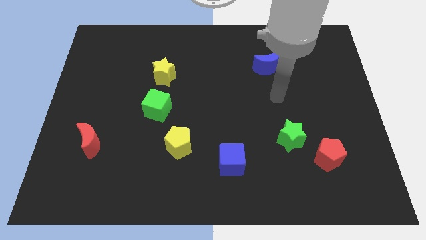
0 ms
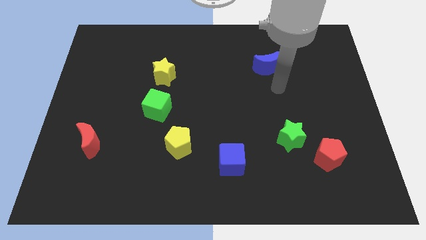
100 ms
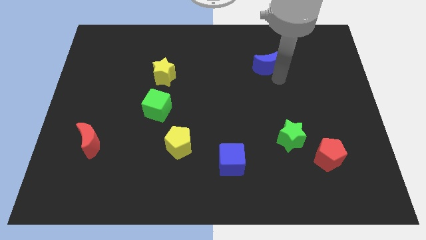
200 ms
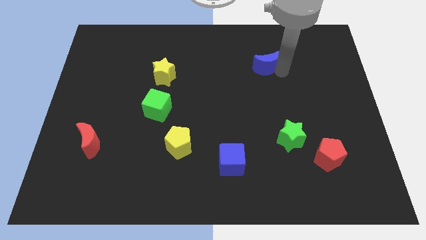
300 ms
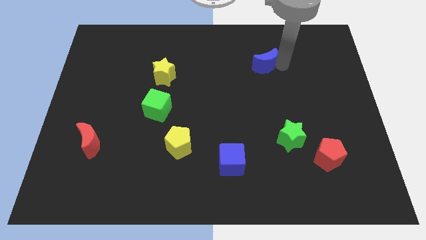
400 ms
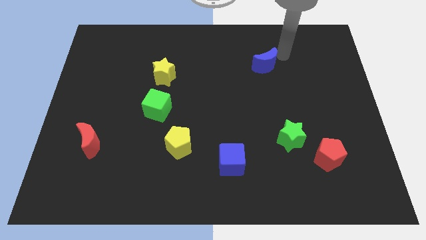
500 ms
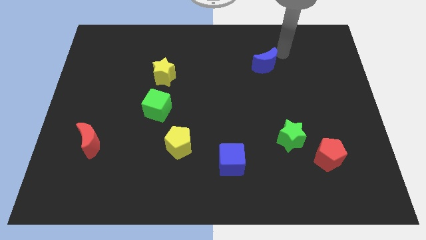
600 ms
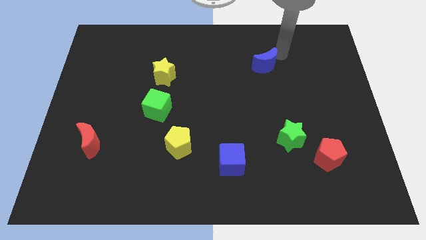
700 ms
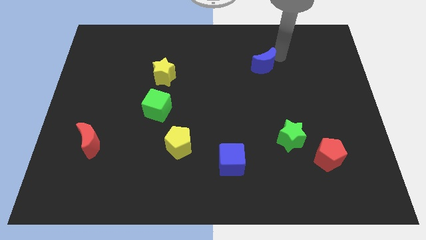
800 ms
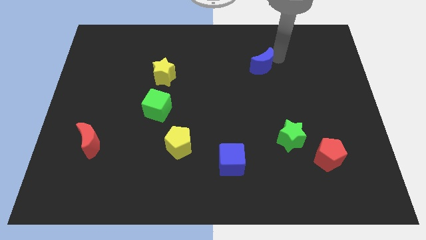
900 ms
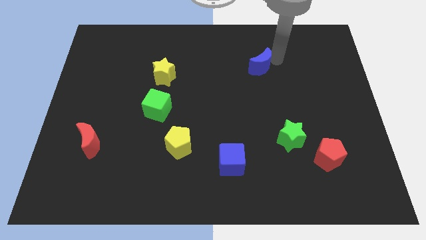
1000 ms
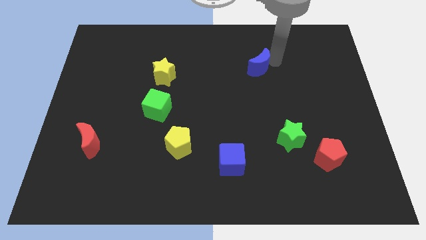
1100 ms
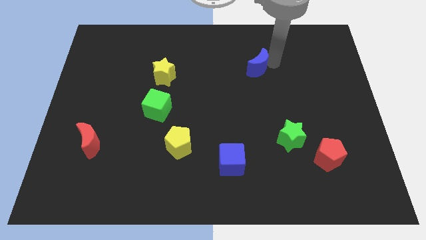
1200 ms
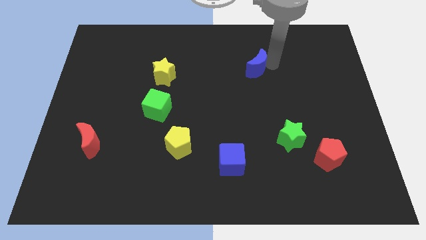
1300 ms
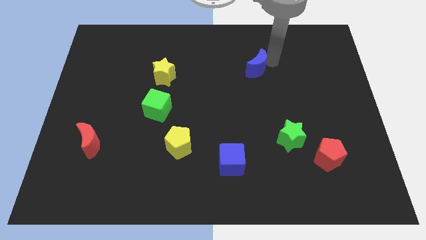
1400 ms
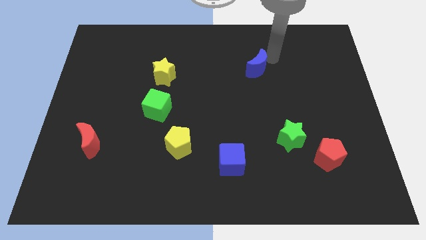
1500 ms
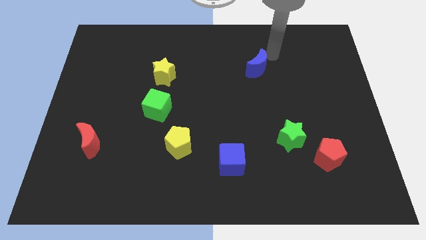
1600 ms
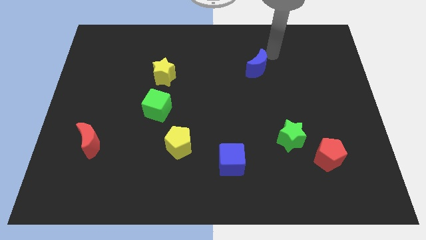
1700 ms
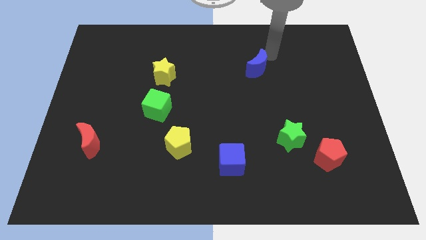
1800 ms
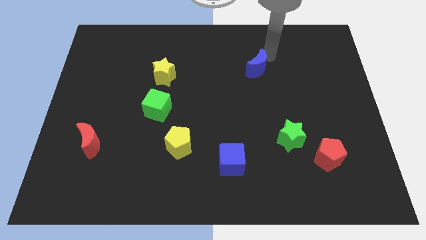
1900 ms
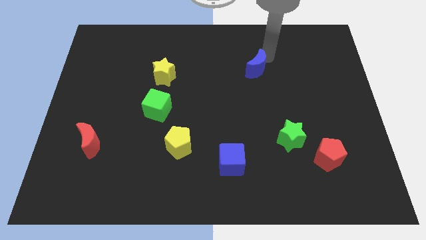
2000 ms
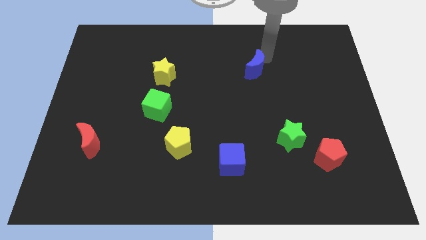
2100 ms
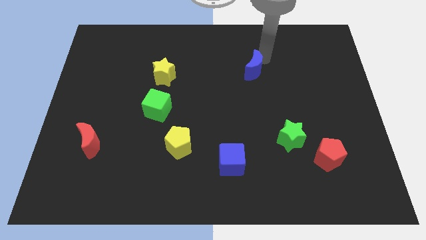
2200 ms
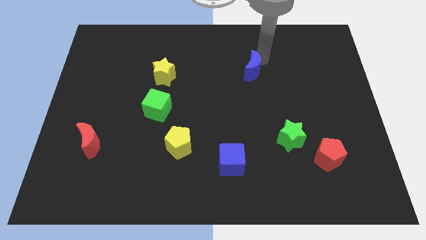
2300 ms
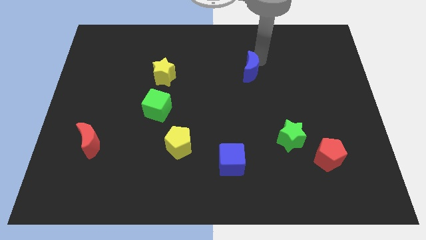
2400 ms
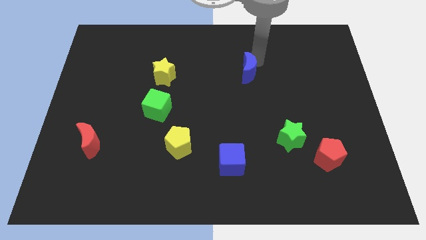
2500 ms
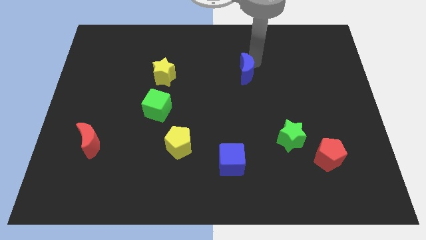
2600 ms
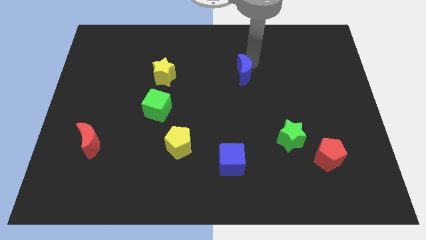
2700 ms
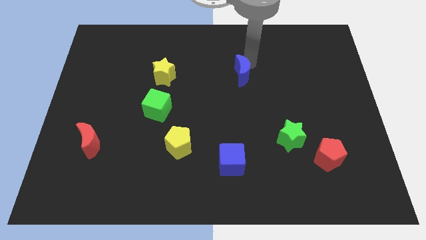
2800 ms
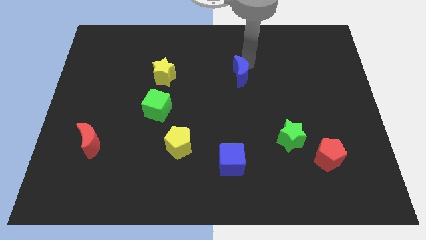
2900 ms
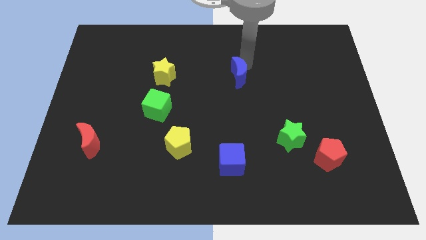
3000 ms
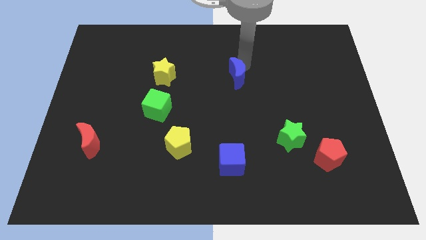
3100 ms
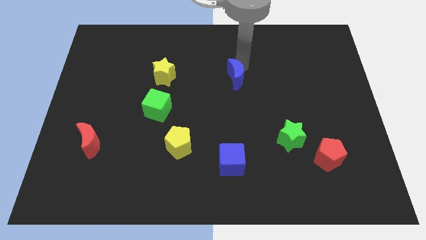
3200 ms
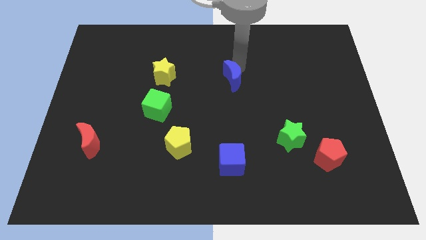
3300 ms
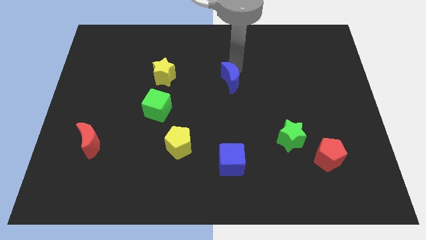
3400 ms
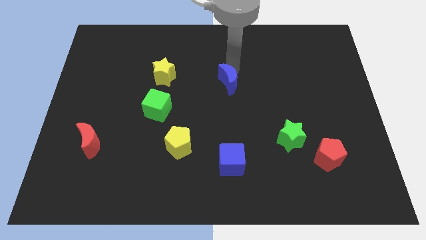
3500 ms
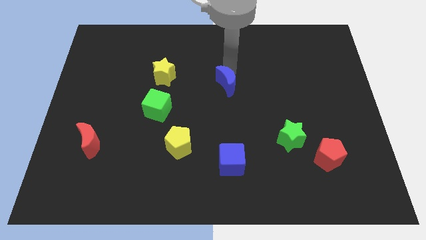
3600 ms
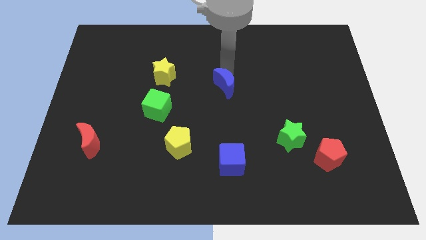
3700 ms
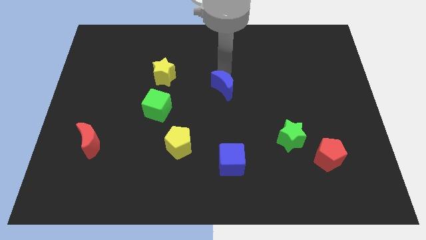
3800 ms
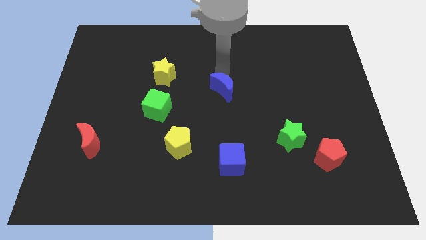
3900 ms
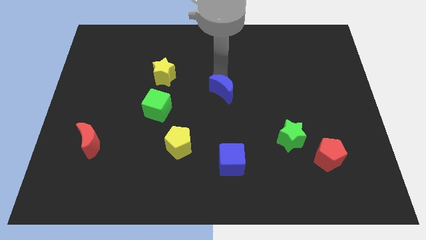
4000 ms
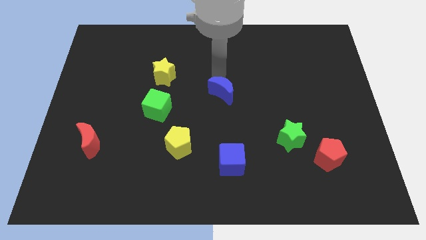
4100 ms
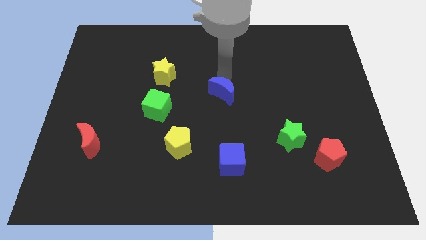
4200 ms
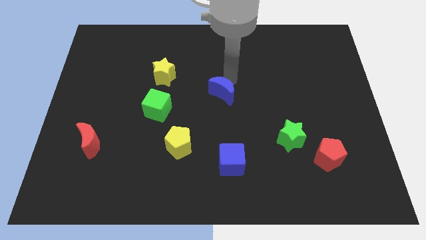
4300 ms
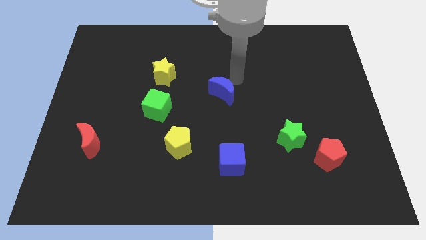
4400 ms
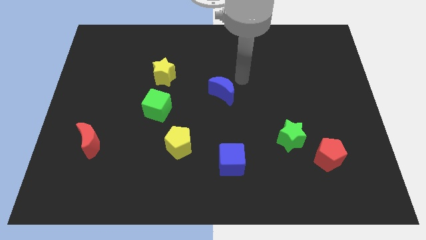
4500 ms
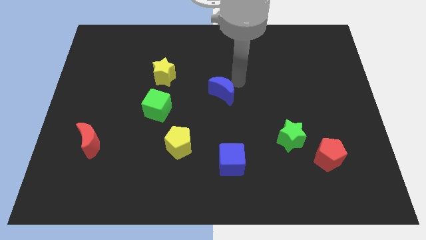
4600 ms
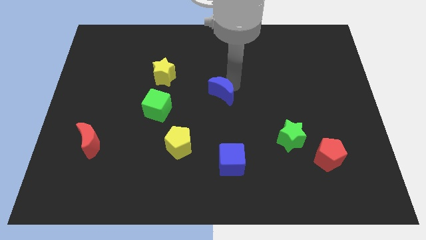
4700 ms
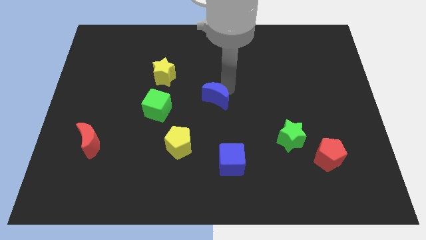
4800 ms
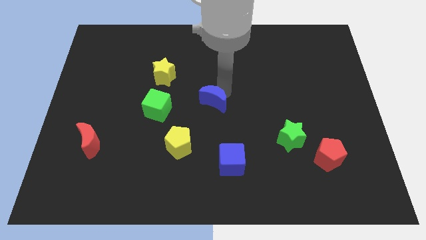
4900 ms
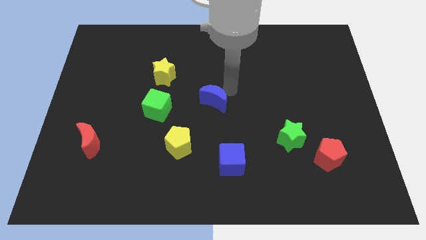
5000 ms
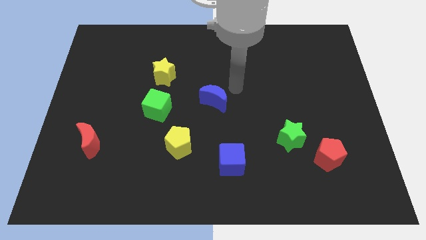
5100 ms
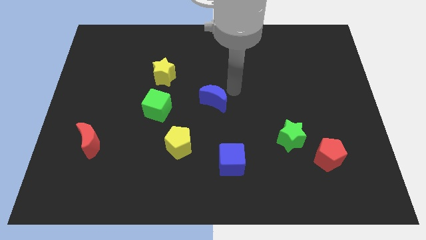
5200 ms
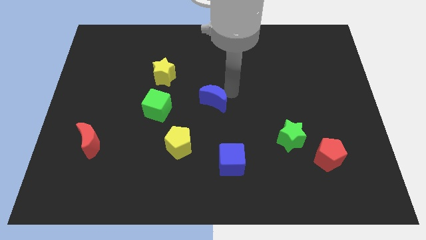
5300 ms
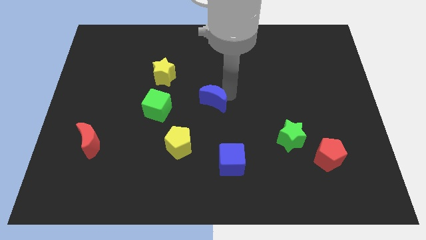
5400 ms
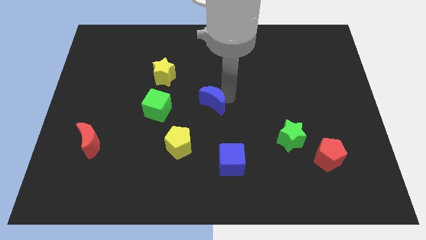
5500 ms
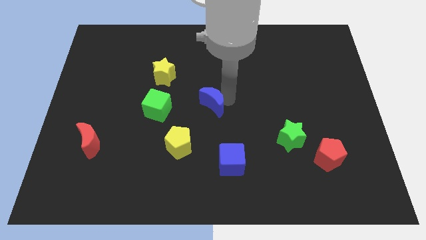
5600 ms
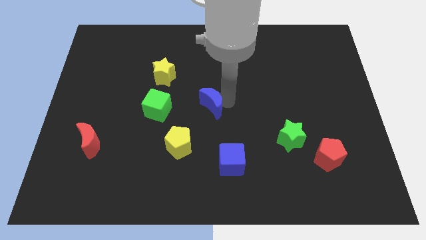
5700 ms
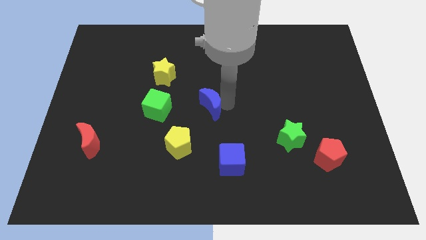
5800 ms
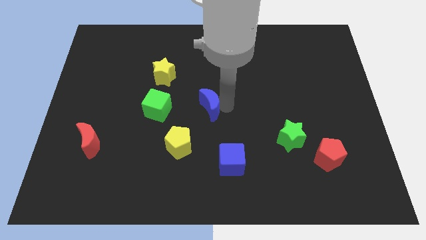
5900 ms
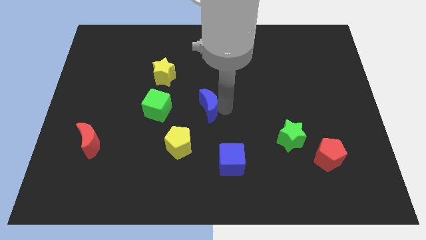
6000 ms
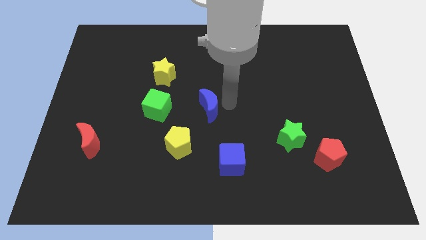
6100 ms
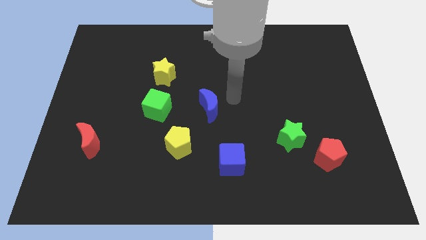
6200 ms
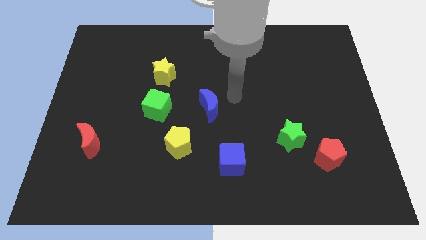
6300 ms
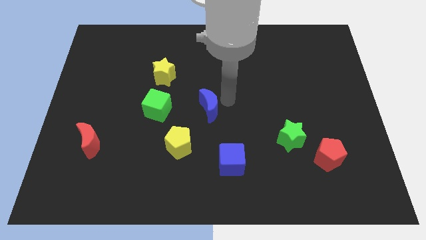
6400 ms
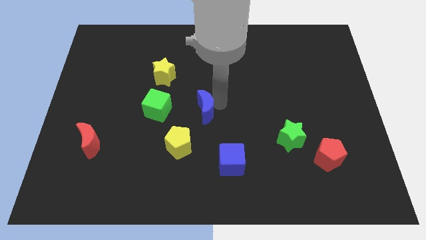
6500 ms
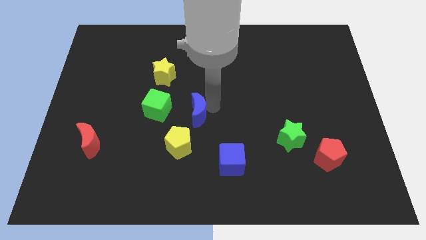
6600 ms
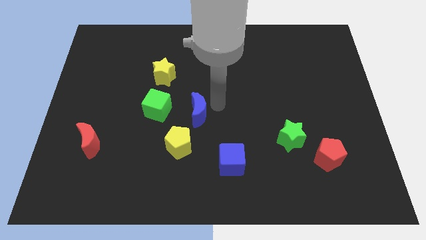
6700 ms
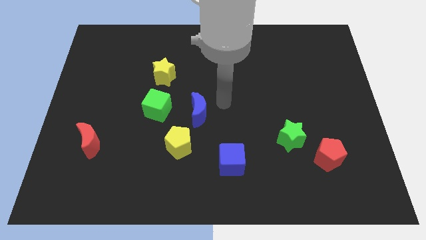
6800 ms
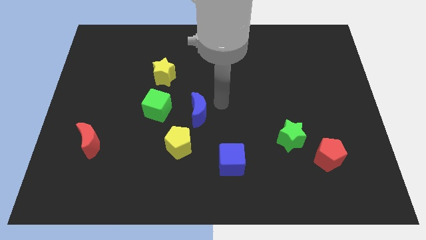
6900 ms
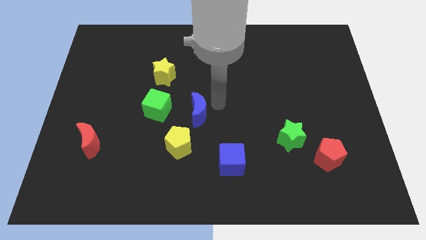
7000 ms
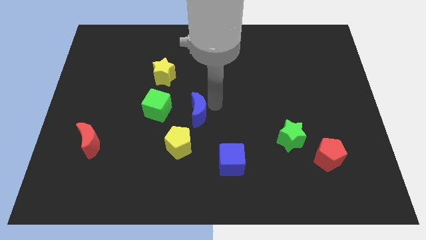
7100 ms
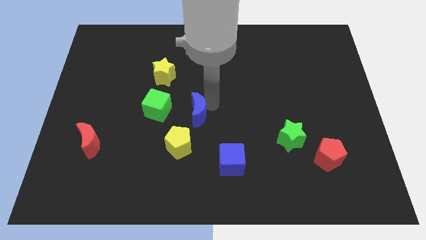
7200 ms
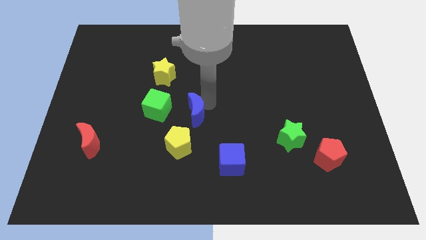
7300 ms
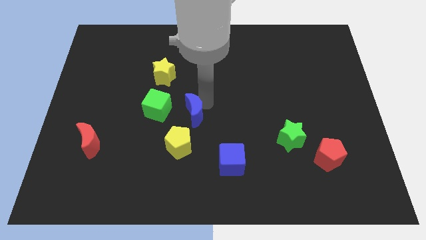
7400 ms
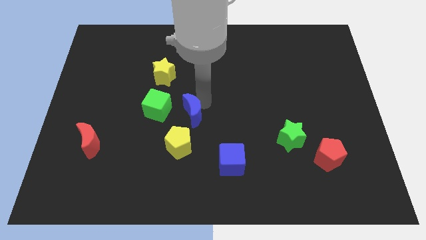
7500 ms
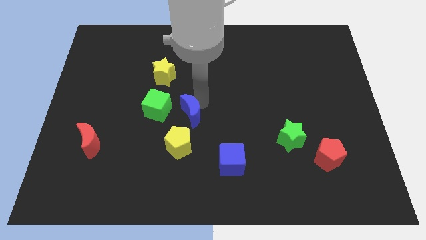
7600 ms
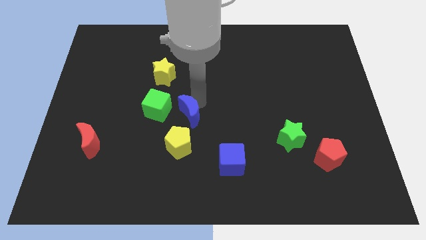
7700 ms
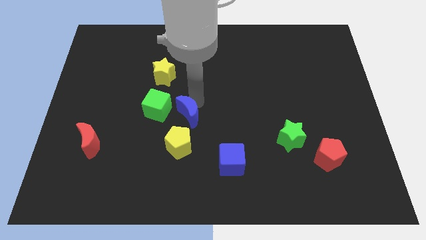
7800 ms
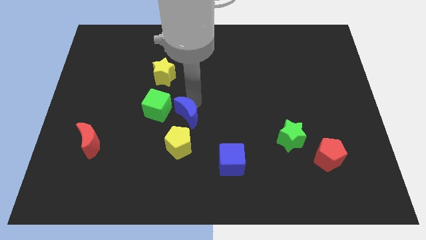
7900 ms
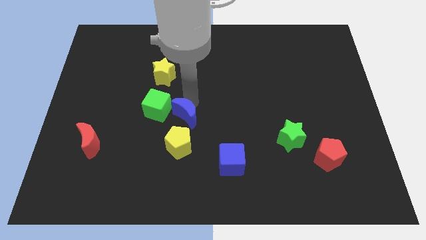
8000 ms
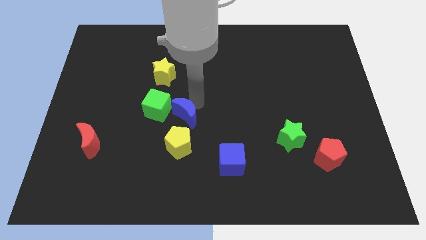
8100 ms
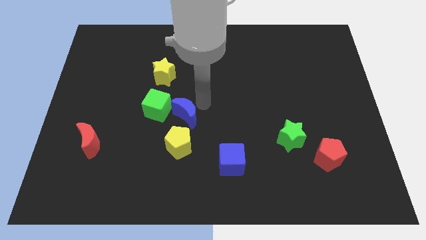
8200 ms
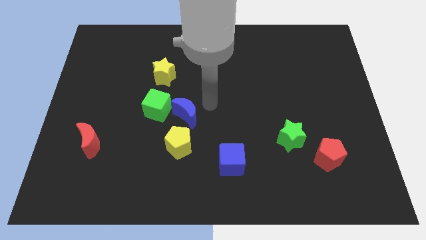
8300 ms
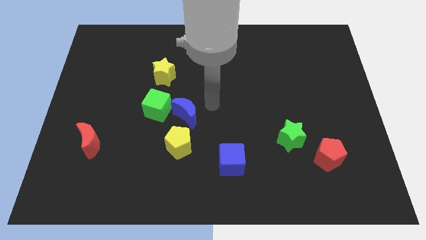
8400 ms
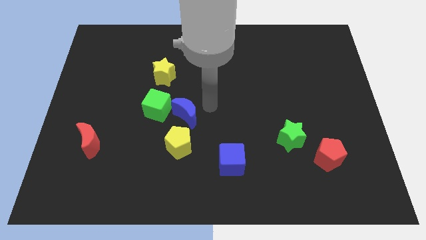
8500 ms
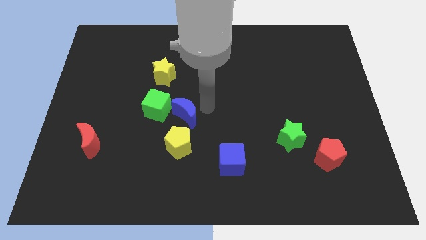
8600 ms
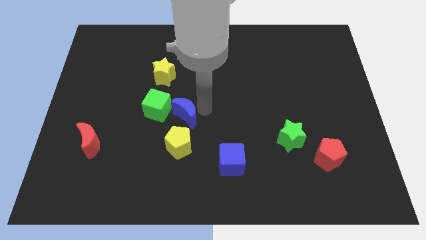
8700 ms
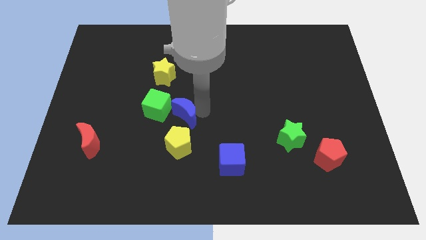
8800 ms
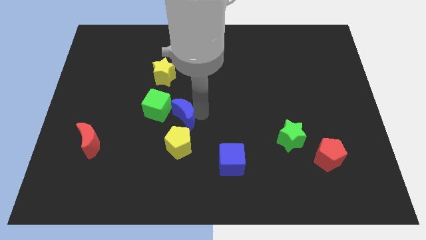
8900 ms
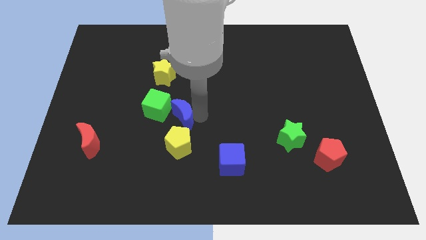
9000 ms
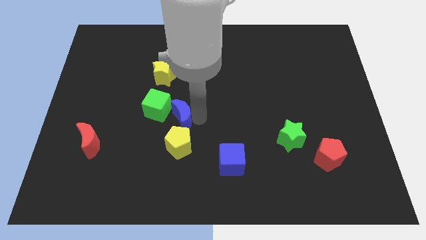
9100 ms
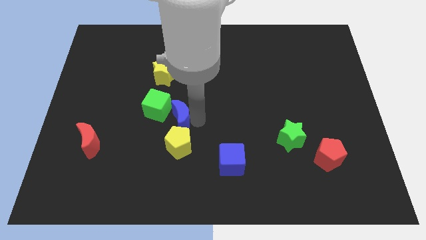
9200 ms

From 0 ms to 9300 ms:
push the blue moon to the top left of the yellow pentagon
